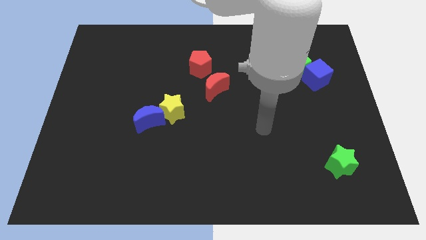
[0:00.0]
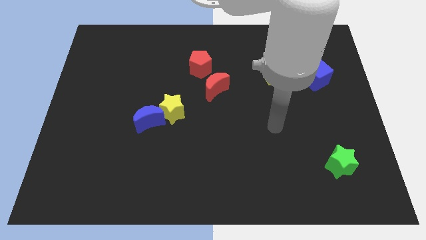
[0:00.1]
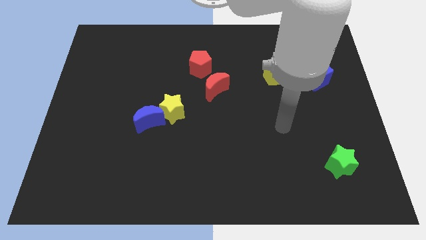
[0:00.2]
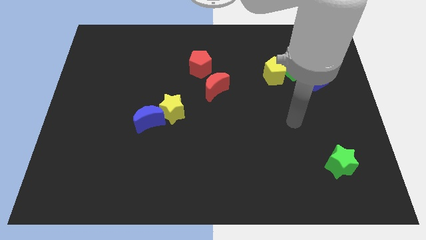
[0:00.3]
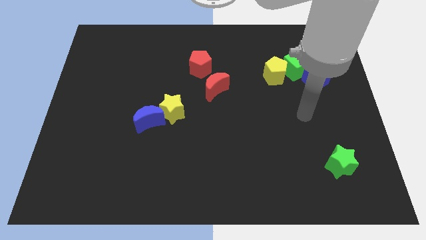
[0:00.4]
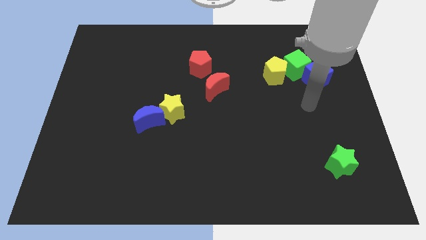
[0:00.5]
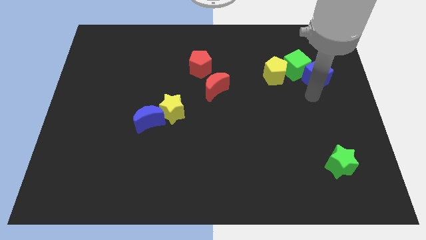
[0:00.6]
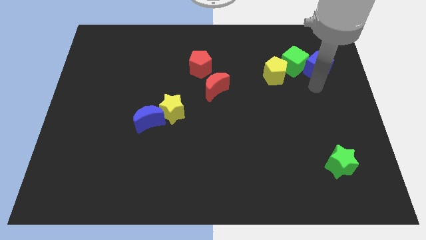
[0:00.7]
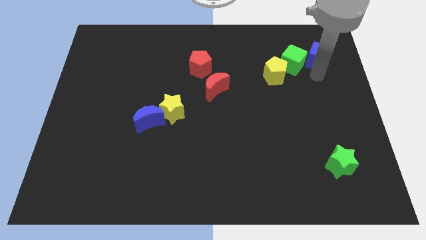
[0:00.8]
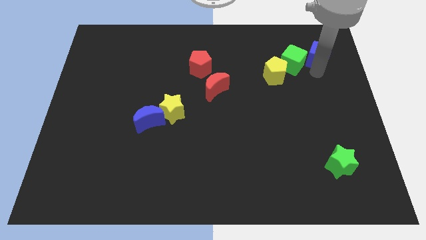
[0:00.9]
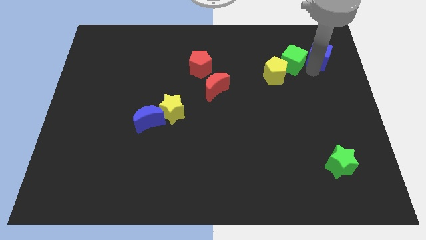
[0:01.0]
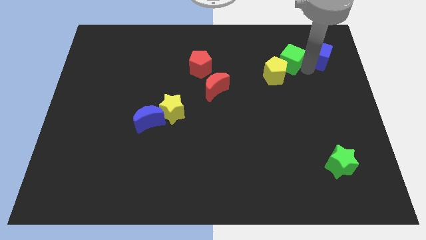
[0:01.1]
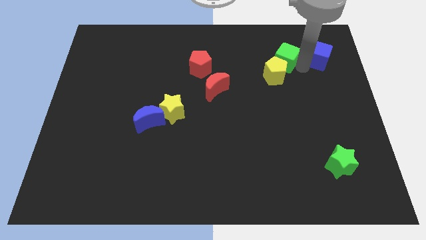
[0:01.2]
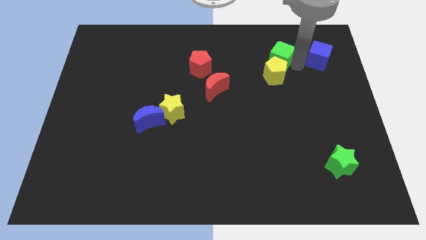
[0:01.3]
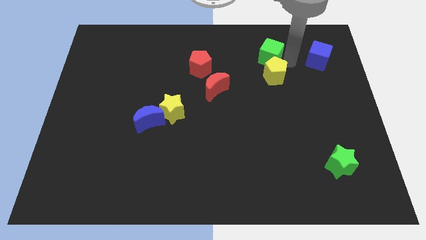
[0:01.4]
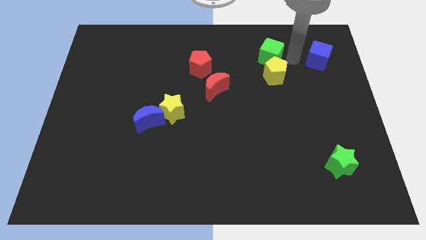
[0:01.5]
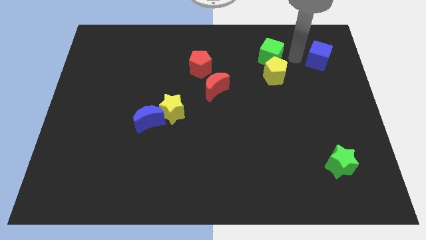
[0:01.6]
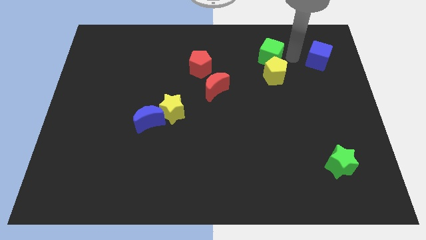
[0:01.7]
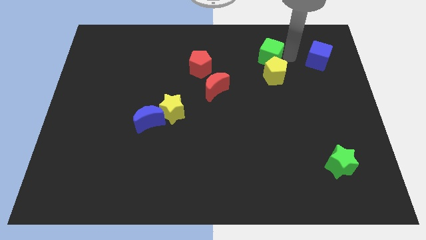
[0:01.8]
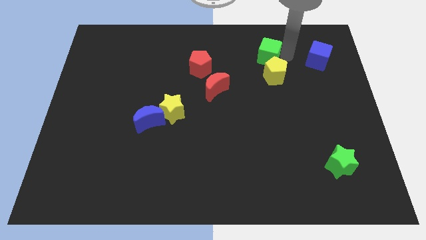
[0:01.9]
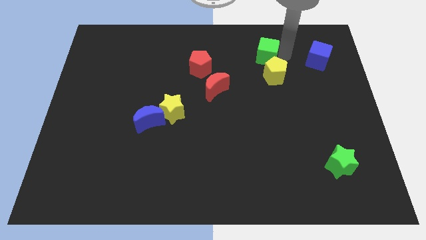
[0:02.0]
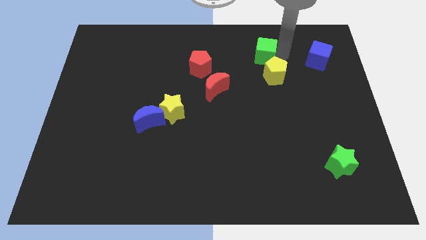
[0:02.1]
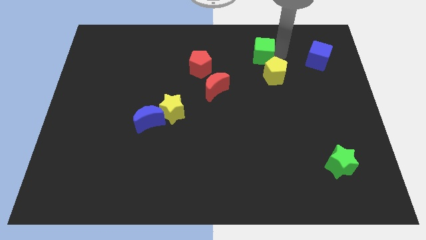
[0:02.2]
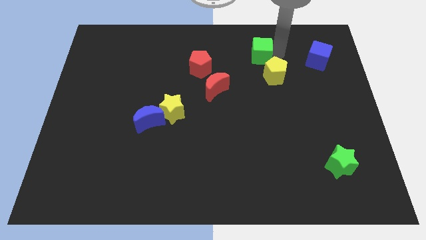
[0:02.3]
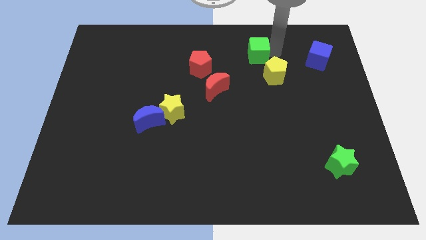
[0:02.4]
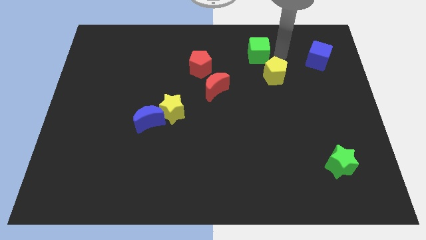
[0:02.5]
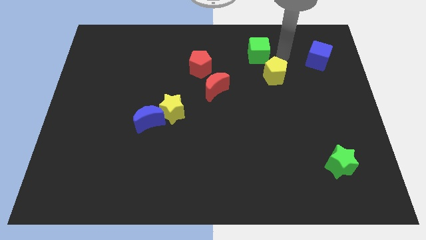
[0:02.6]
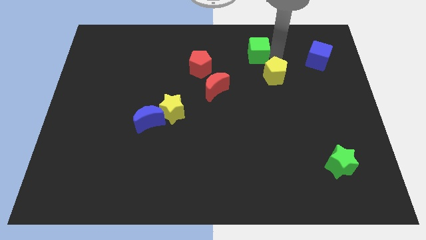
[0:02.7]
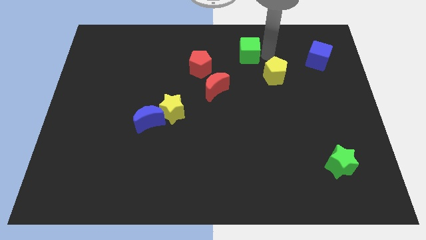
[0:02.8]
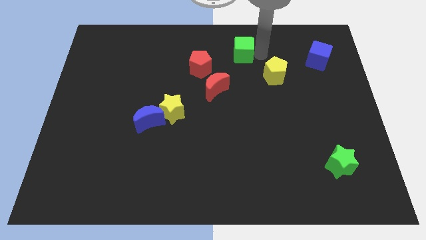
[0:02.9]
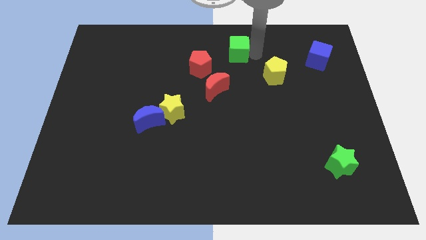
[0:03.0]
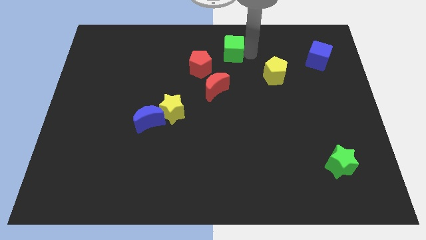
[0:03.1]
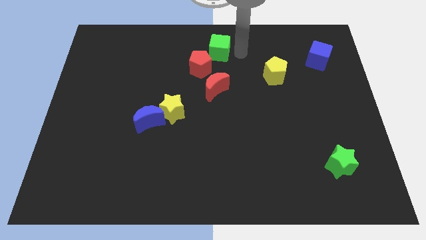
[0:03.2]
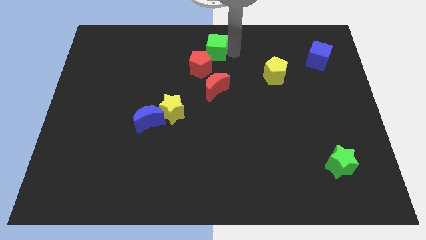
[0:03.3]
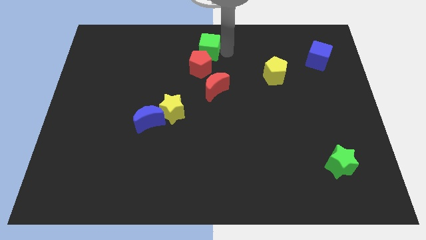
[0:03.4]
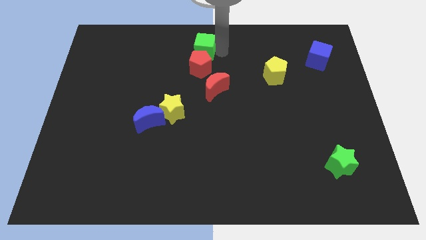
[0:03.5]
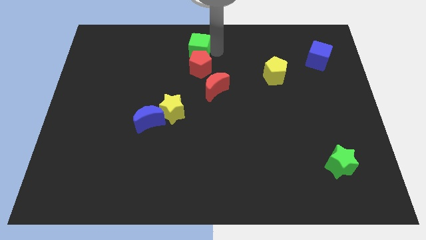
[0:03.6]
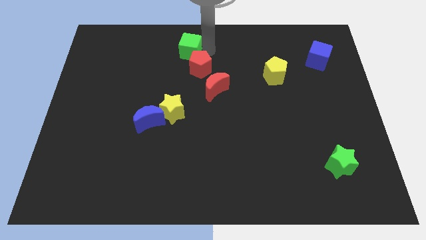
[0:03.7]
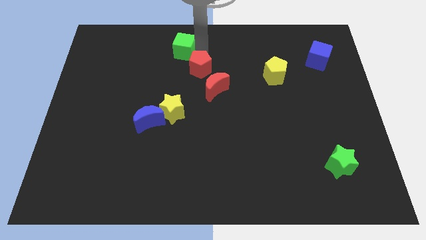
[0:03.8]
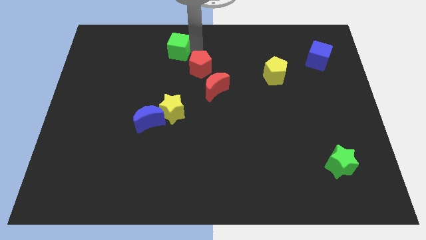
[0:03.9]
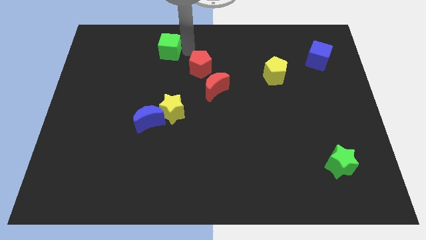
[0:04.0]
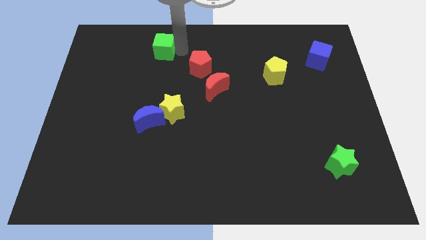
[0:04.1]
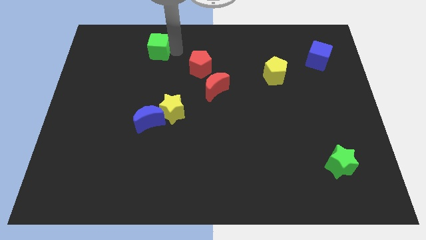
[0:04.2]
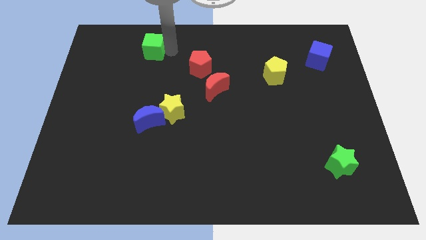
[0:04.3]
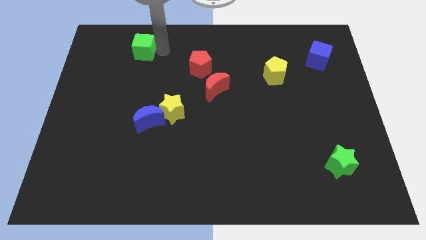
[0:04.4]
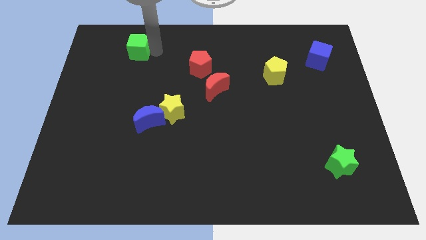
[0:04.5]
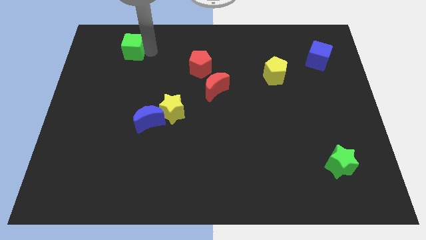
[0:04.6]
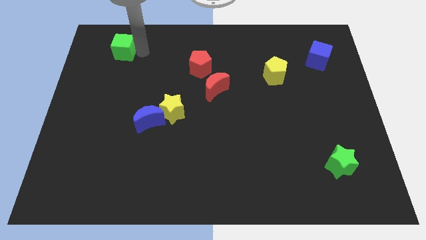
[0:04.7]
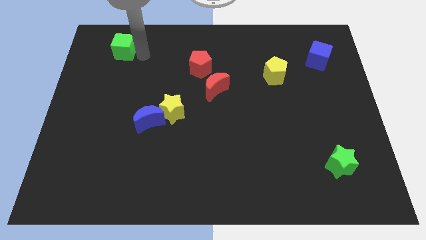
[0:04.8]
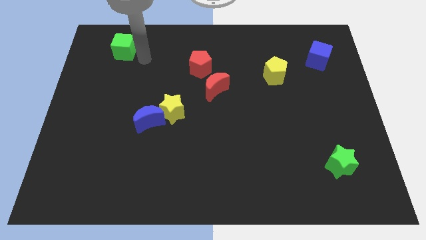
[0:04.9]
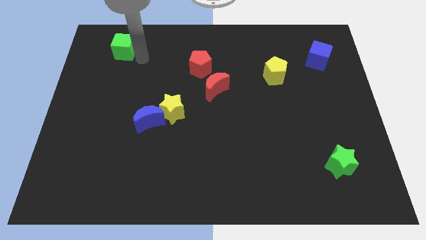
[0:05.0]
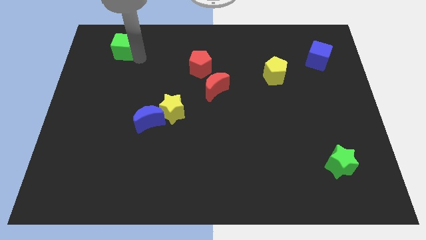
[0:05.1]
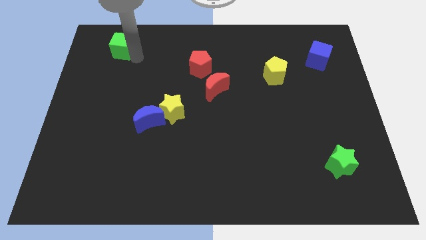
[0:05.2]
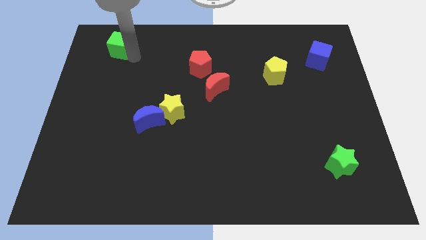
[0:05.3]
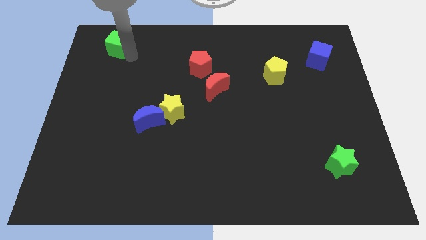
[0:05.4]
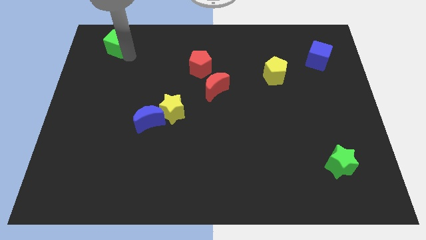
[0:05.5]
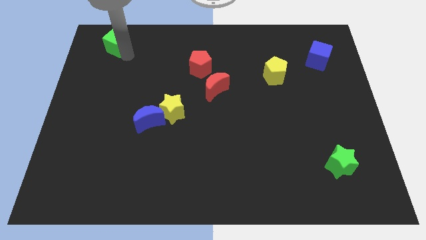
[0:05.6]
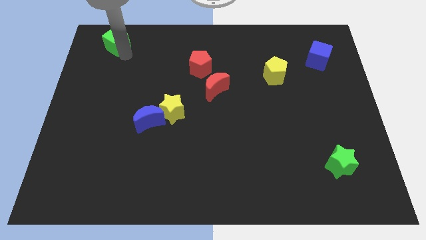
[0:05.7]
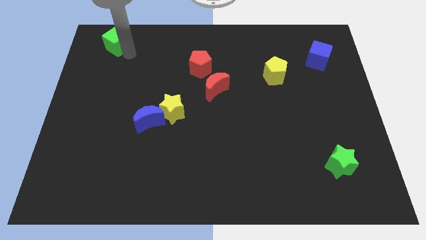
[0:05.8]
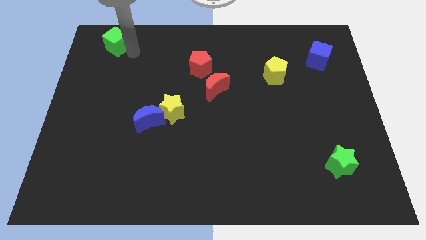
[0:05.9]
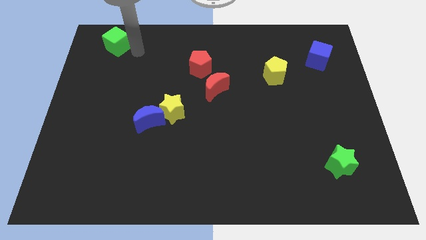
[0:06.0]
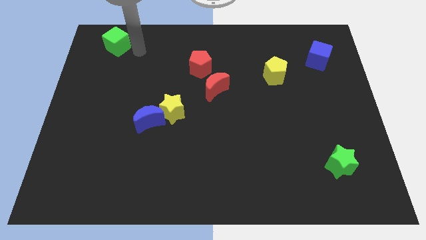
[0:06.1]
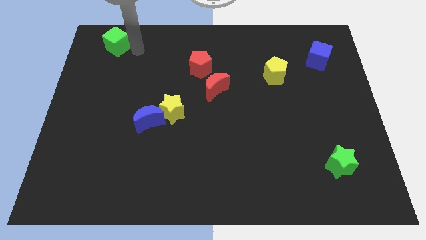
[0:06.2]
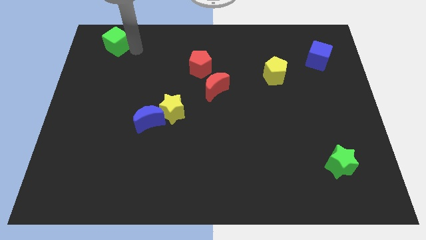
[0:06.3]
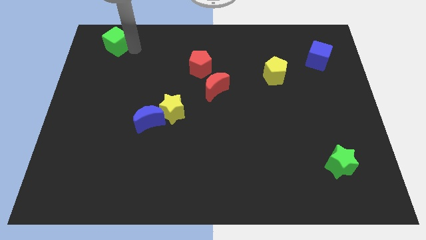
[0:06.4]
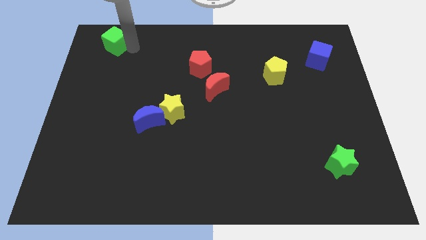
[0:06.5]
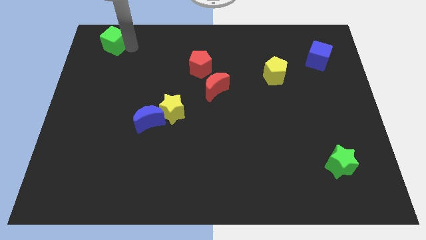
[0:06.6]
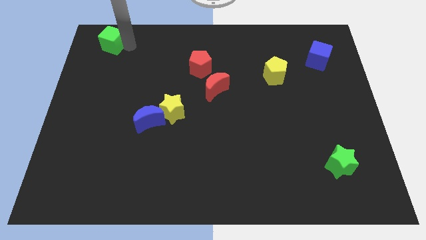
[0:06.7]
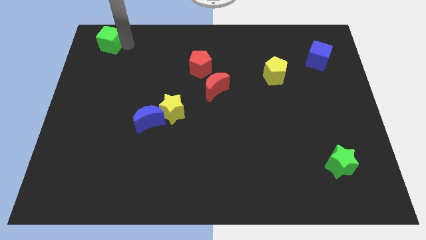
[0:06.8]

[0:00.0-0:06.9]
move the green cube to the upper left corner
